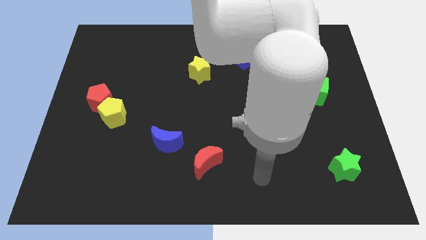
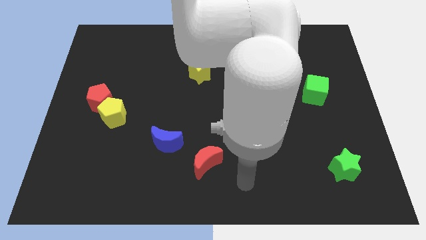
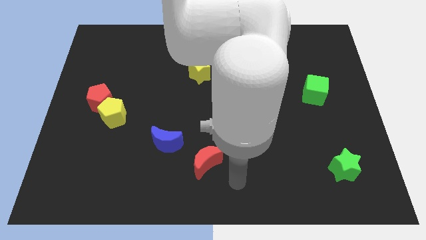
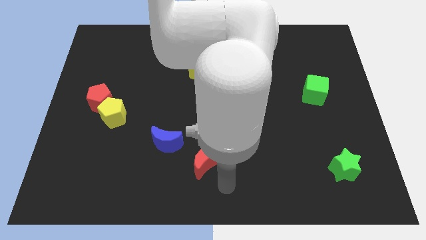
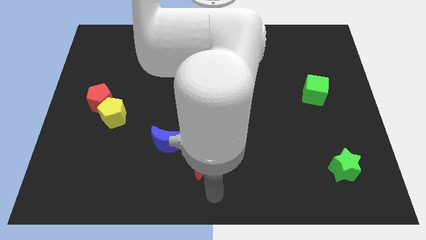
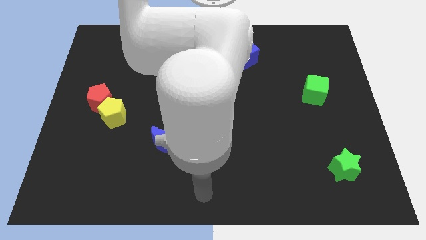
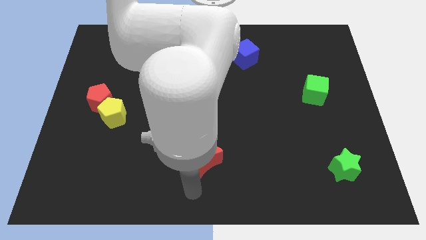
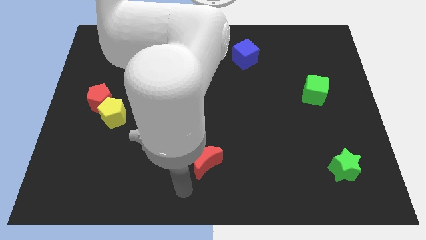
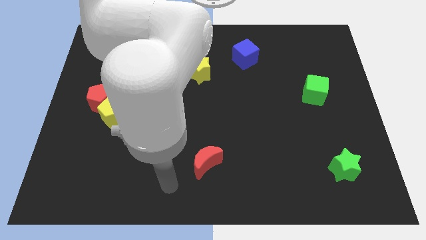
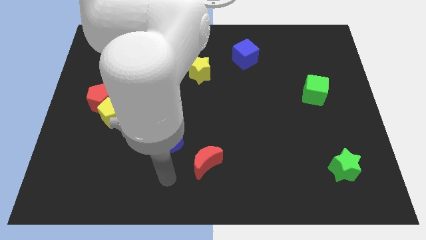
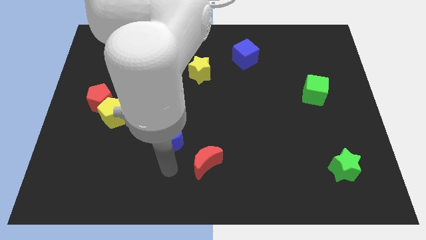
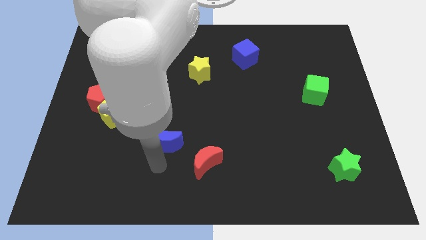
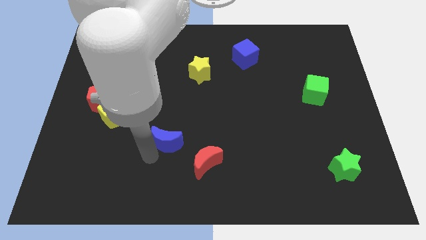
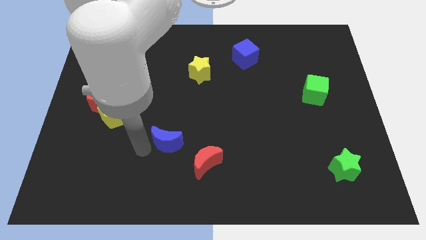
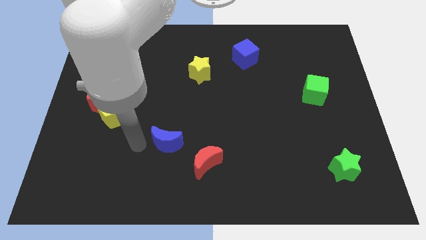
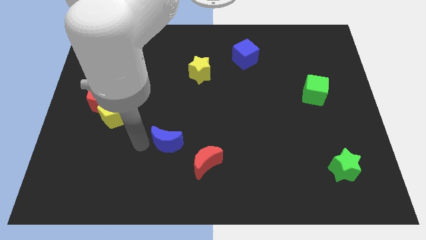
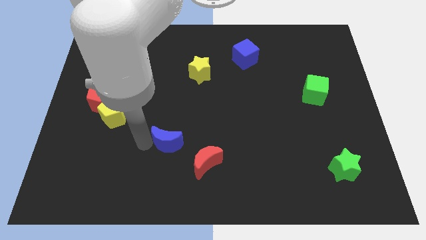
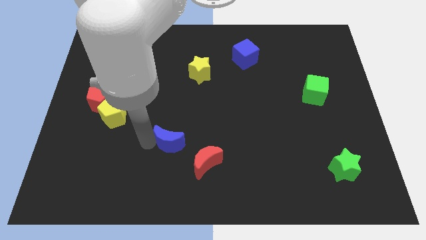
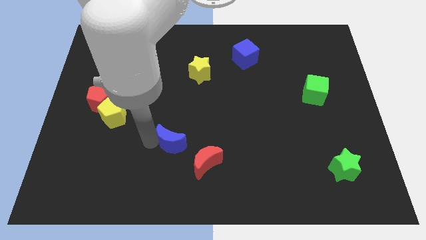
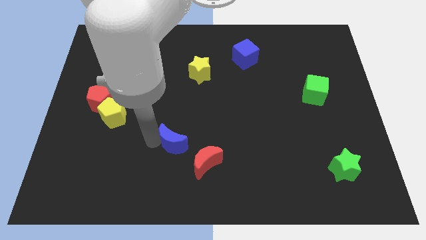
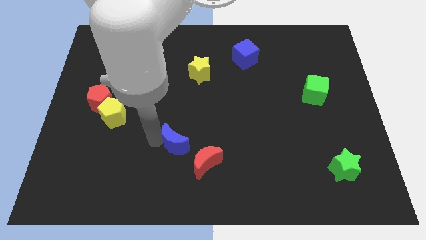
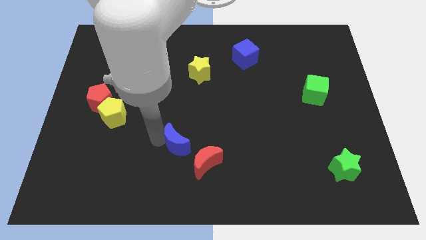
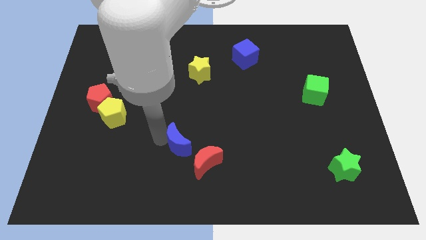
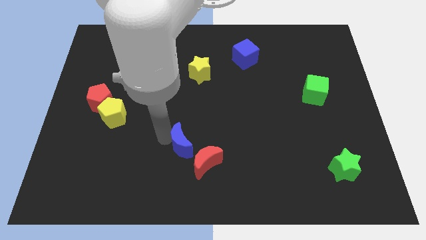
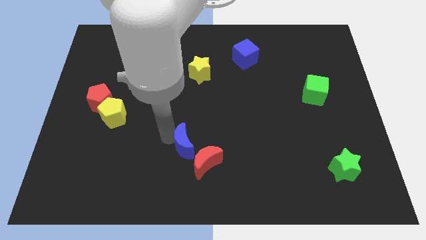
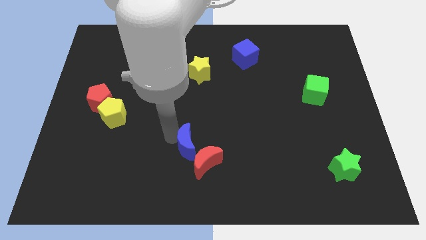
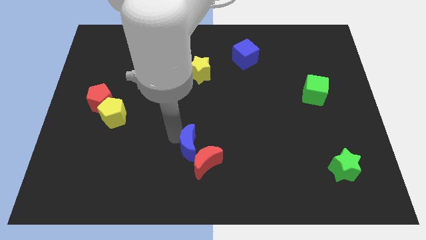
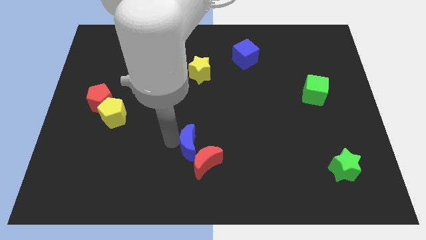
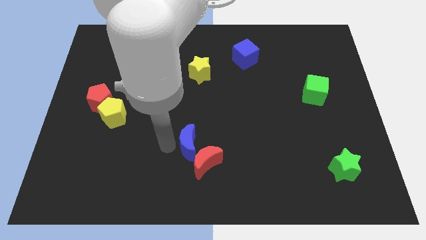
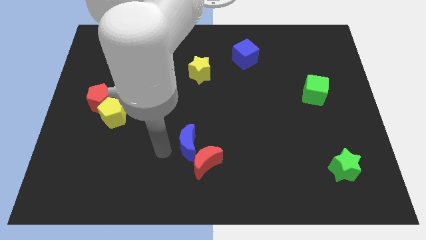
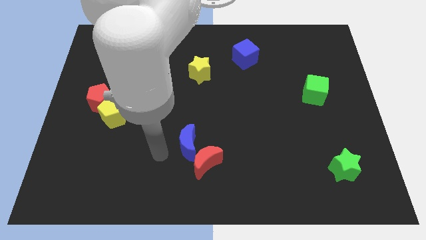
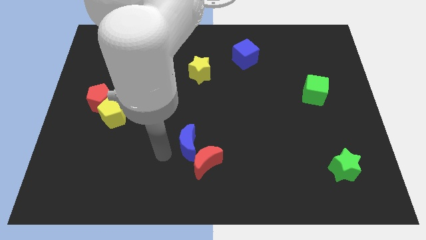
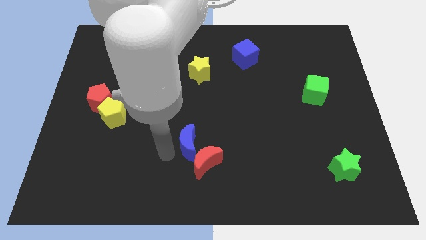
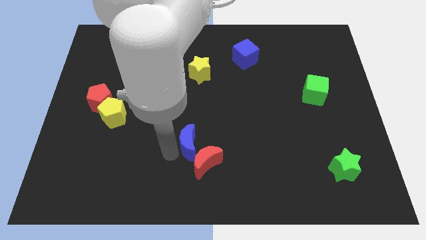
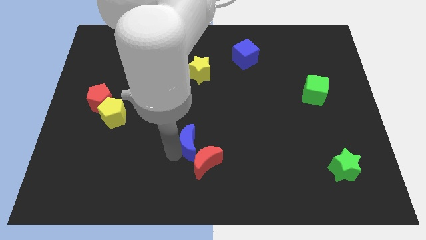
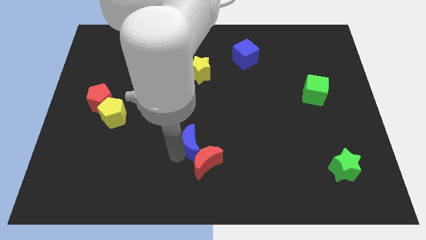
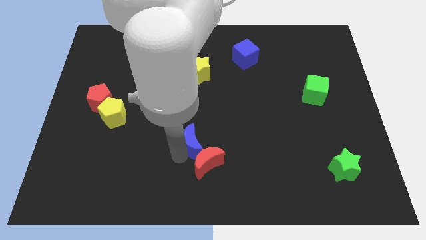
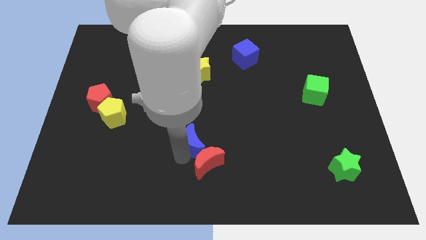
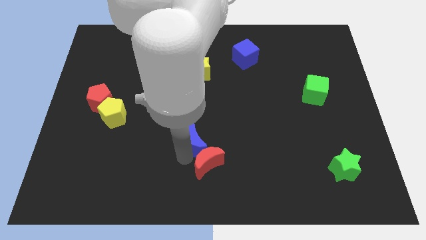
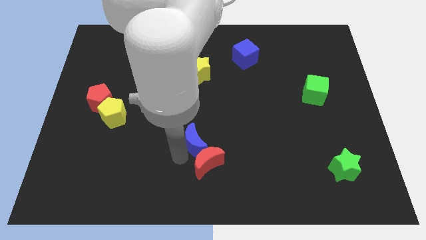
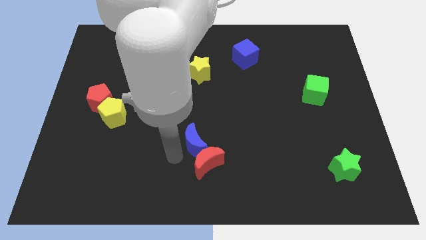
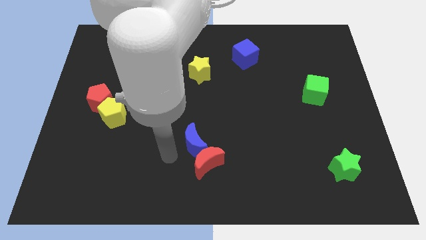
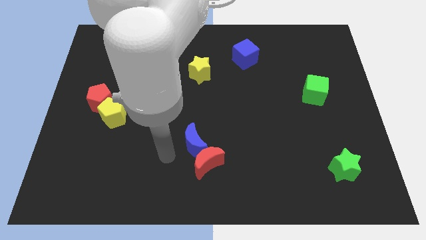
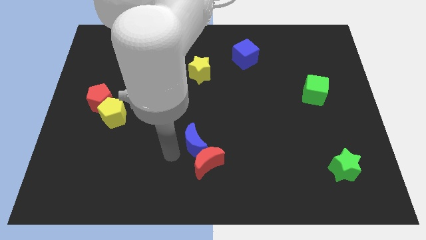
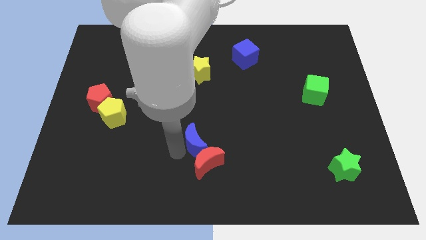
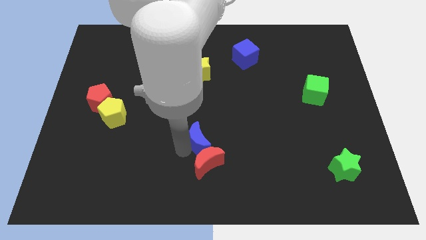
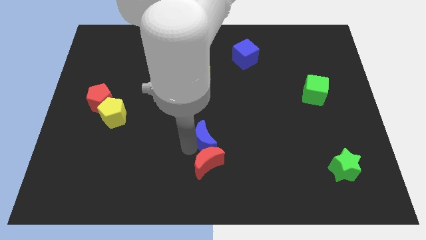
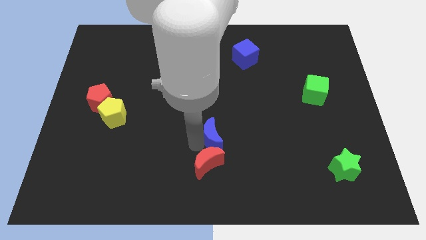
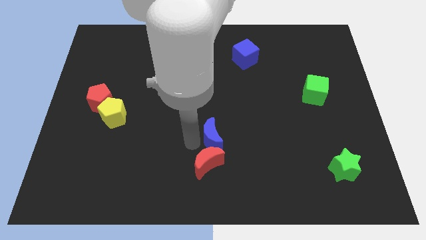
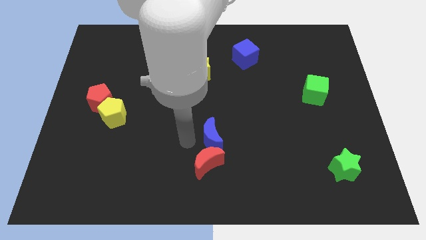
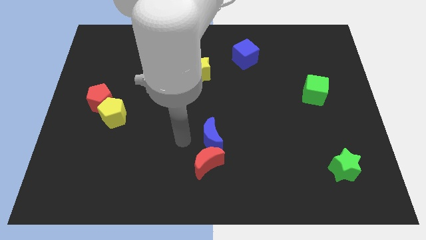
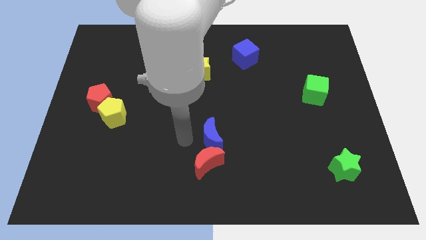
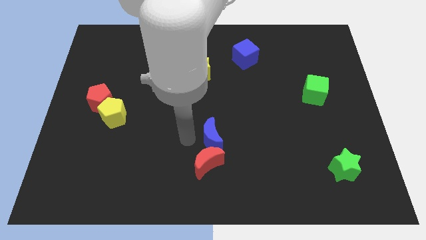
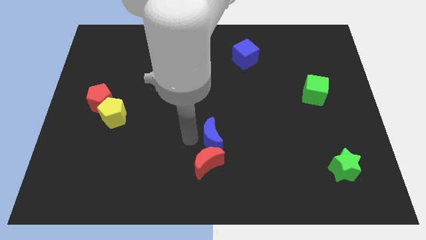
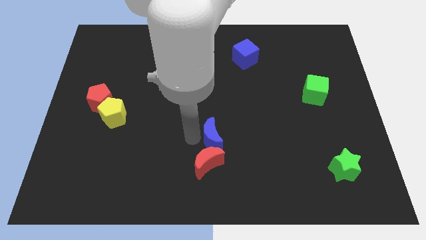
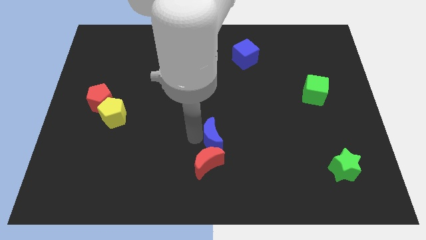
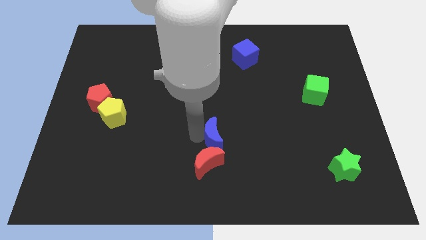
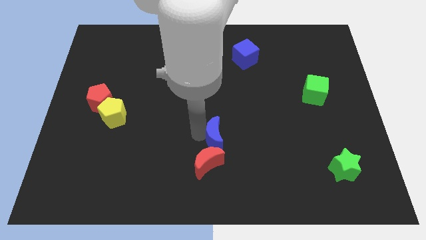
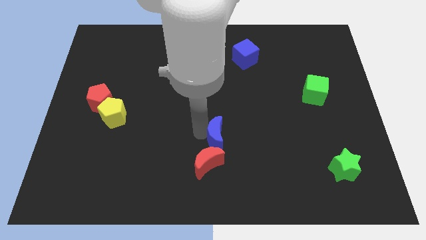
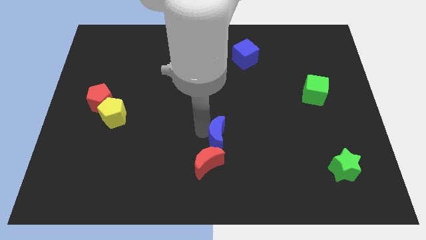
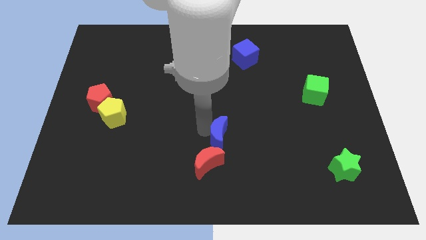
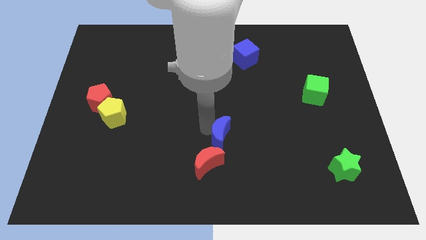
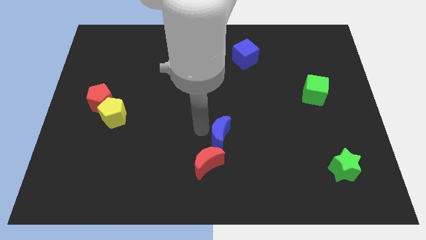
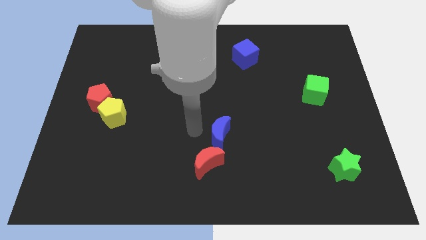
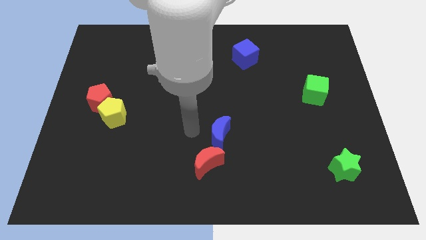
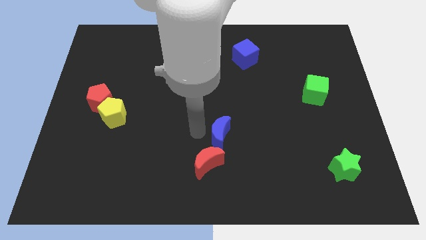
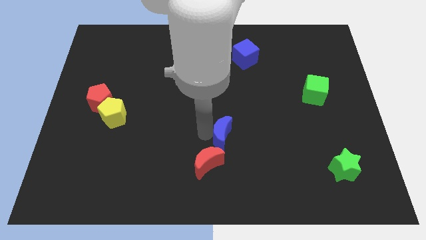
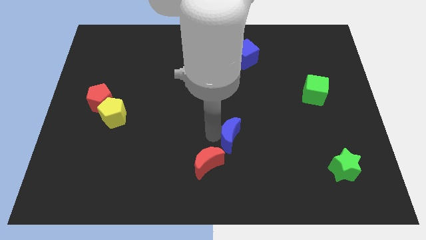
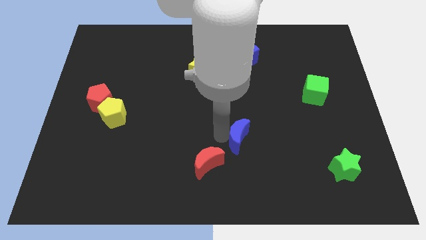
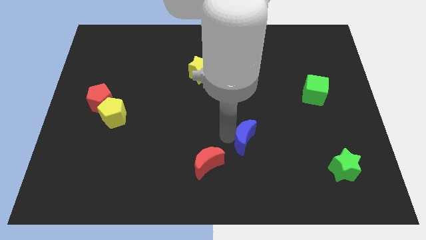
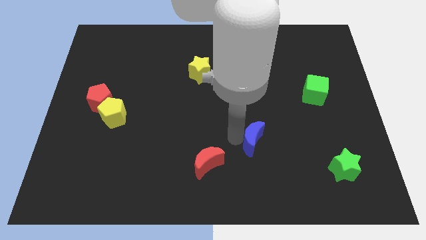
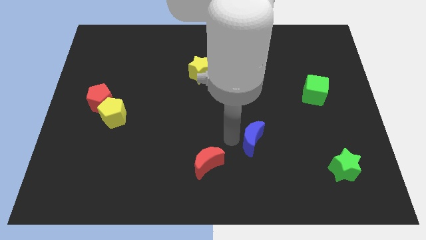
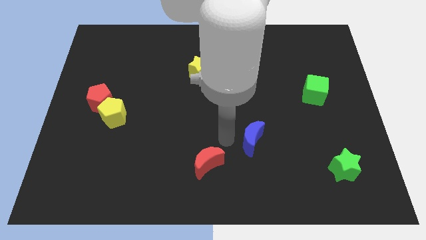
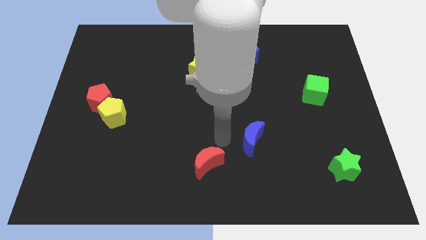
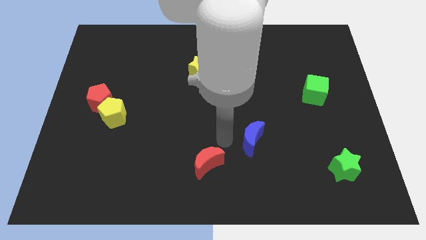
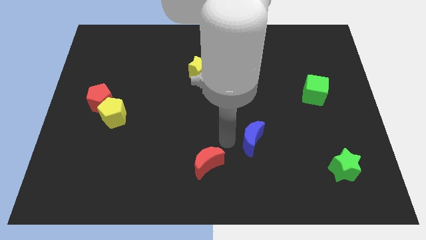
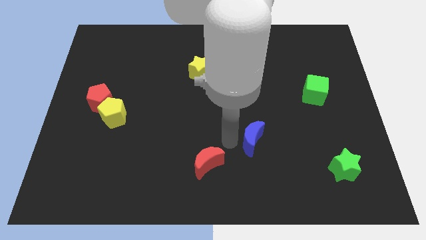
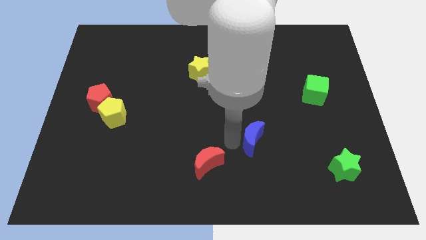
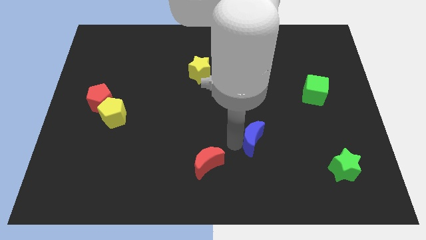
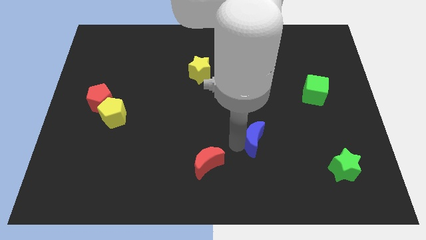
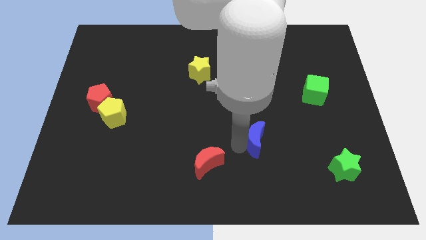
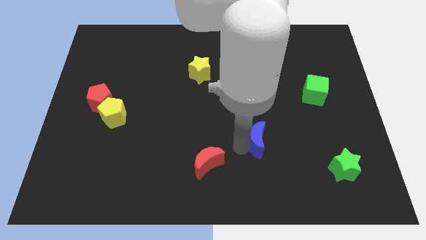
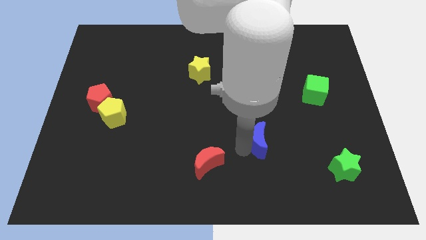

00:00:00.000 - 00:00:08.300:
push the blue moon right
